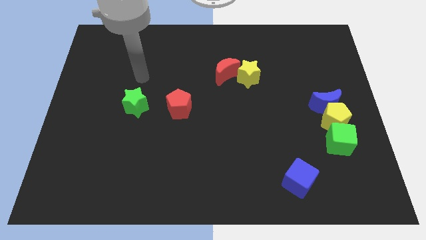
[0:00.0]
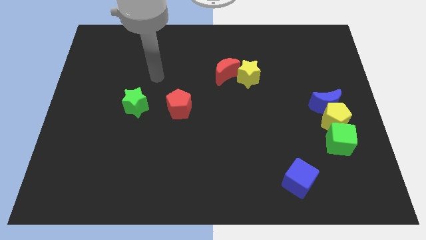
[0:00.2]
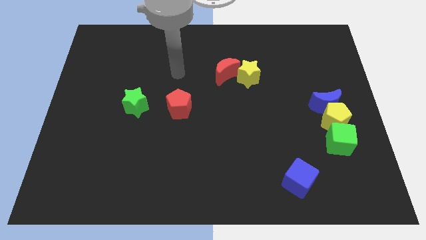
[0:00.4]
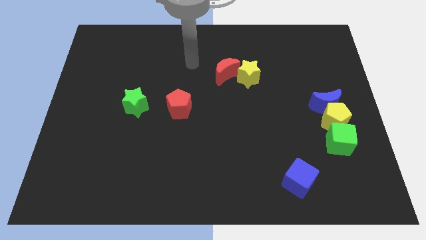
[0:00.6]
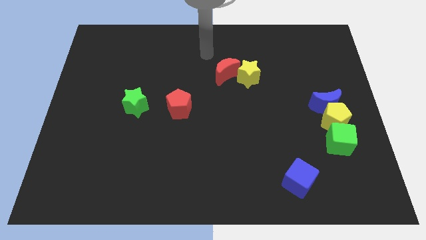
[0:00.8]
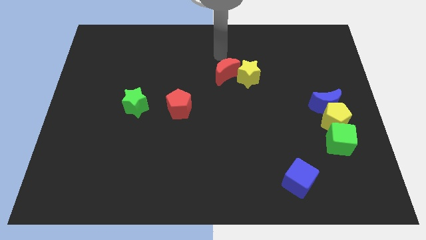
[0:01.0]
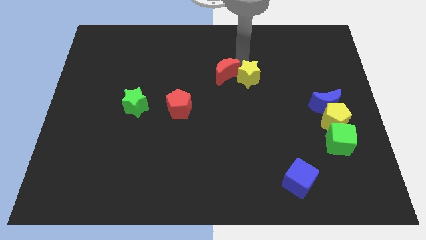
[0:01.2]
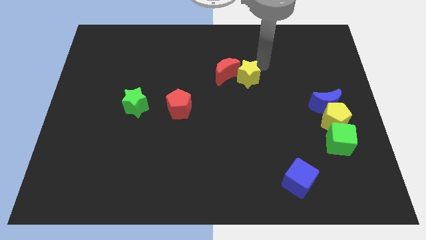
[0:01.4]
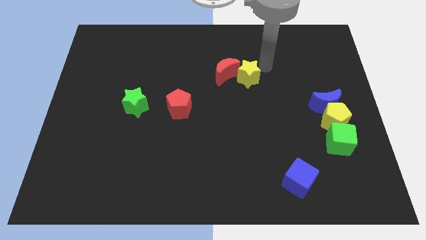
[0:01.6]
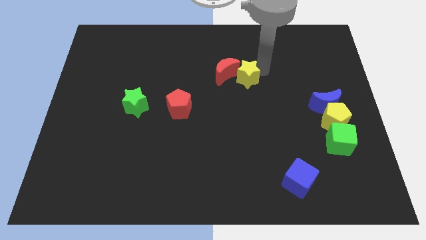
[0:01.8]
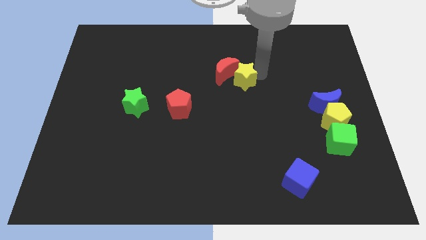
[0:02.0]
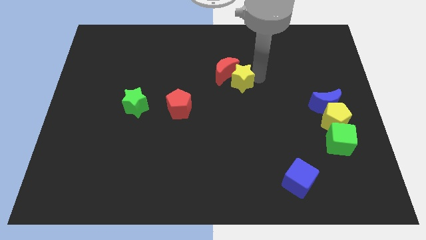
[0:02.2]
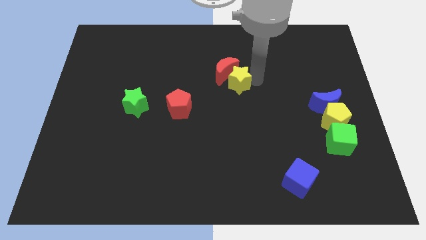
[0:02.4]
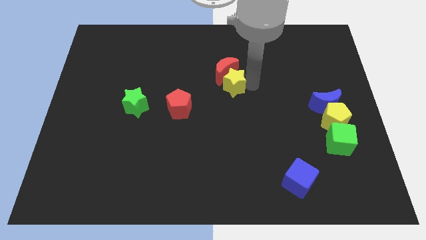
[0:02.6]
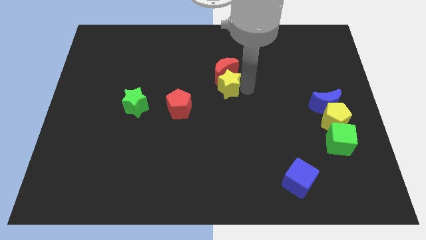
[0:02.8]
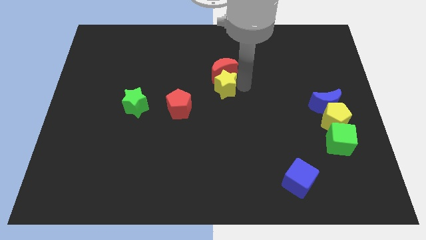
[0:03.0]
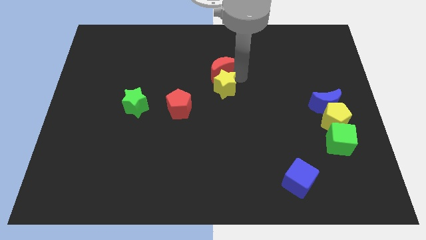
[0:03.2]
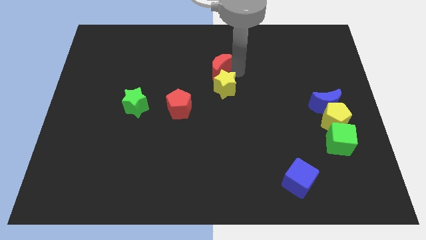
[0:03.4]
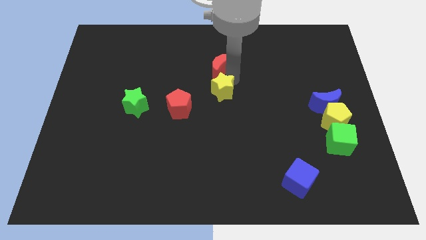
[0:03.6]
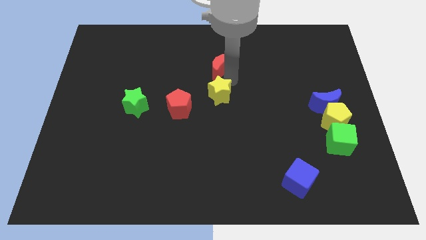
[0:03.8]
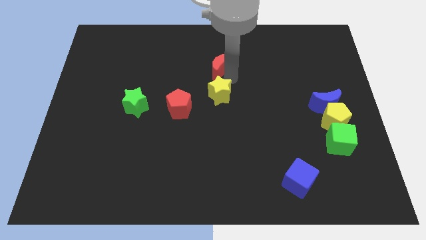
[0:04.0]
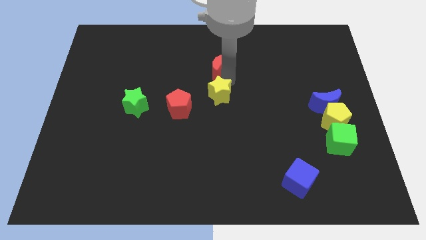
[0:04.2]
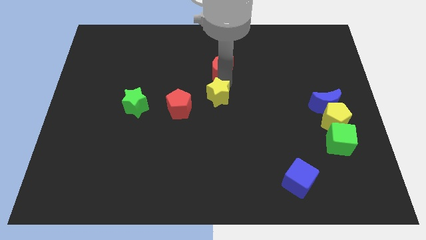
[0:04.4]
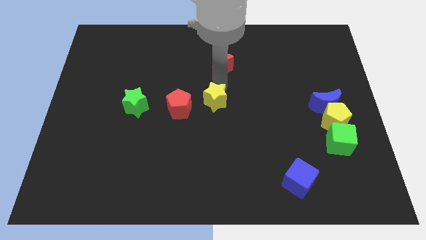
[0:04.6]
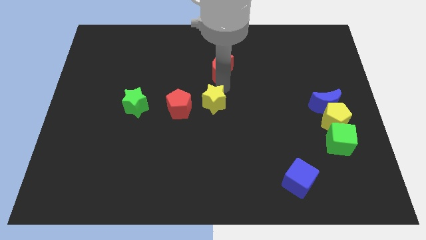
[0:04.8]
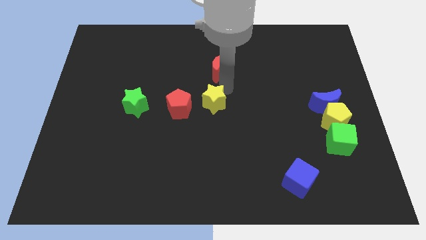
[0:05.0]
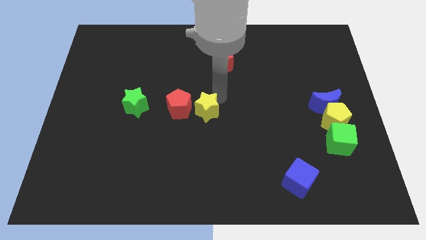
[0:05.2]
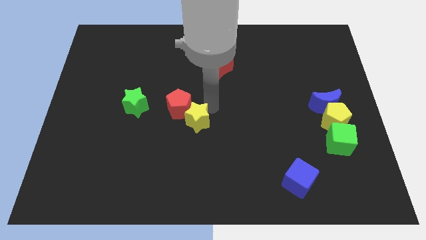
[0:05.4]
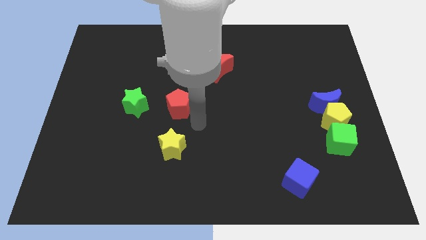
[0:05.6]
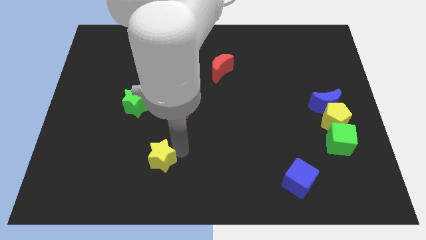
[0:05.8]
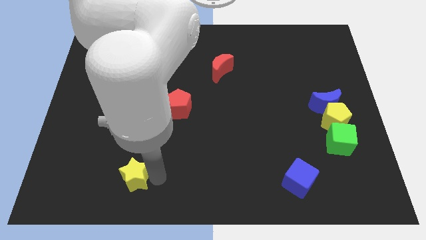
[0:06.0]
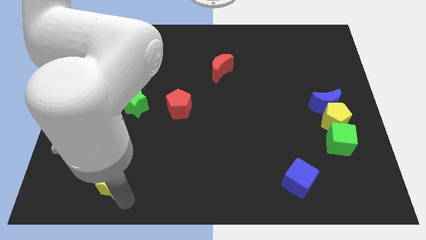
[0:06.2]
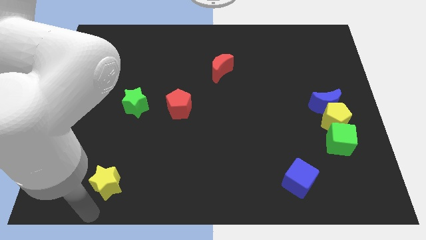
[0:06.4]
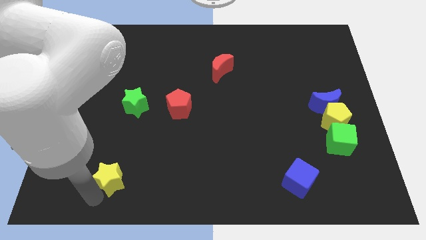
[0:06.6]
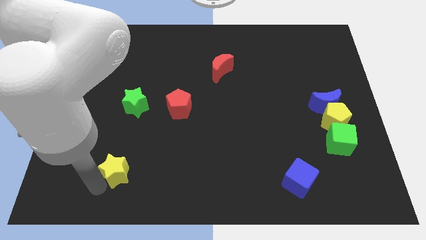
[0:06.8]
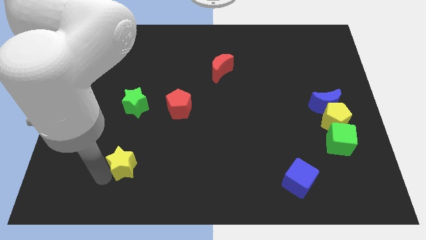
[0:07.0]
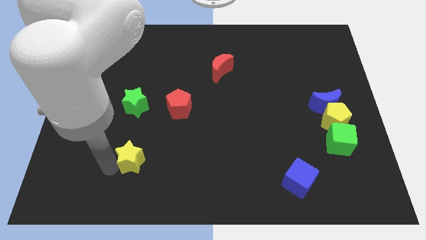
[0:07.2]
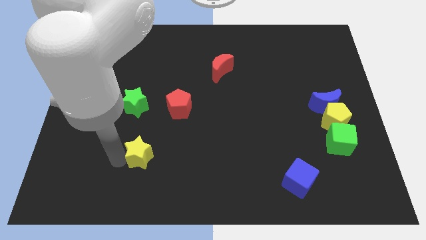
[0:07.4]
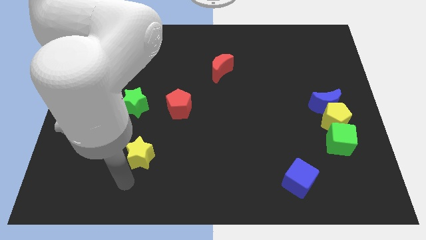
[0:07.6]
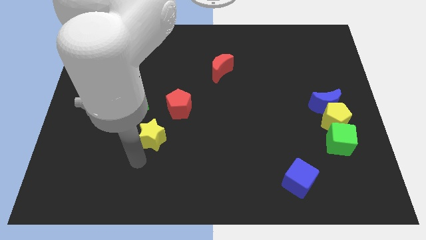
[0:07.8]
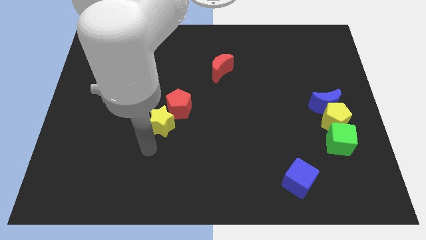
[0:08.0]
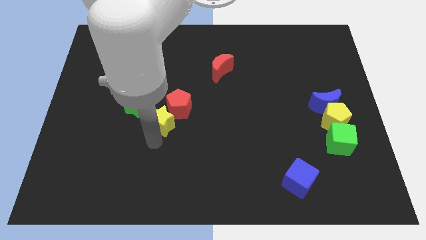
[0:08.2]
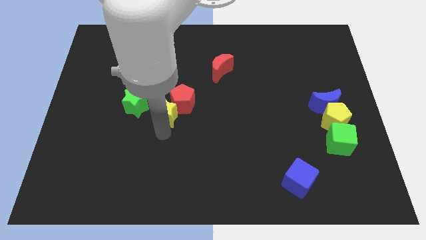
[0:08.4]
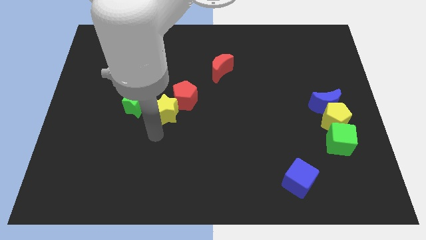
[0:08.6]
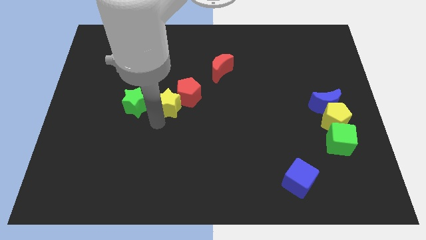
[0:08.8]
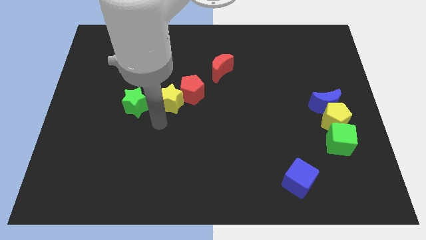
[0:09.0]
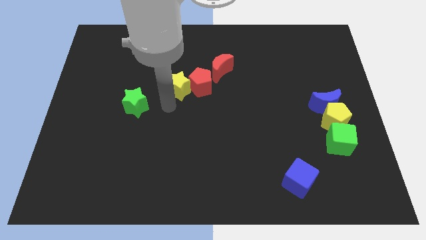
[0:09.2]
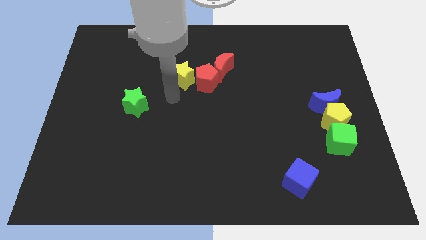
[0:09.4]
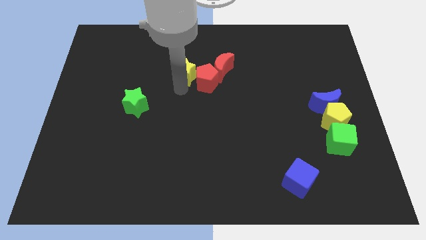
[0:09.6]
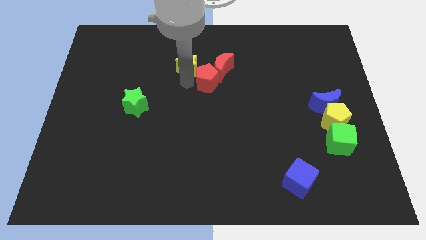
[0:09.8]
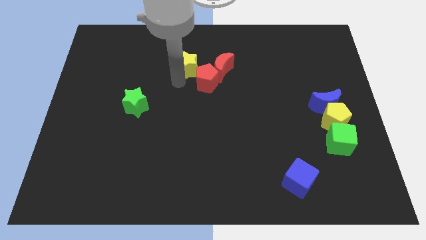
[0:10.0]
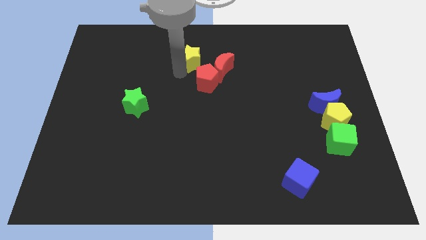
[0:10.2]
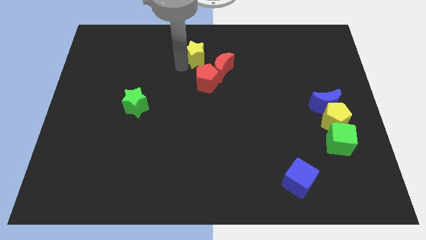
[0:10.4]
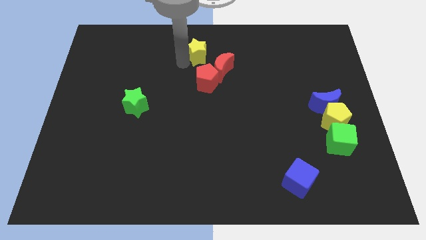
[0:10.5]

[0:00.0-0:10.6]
put the yellow star to the towards your base

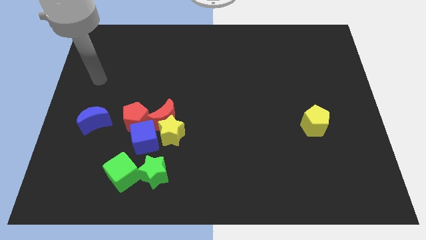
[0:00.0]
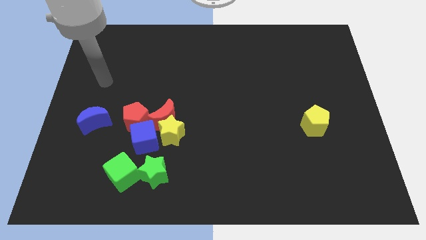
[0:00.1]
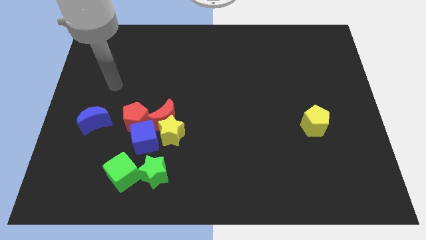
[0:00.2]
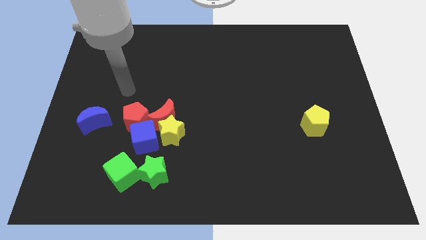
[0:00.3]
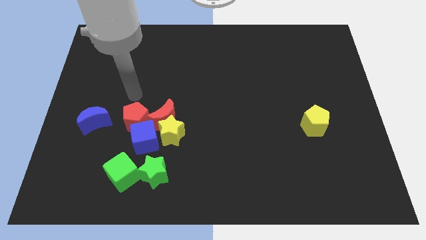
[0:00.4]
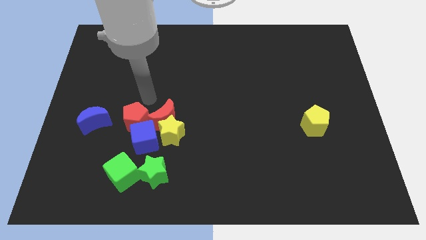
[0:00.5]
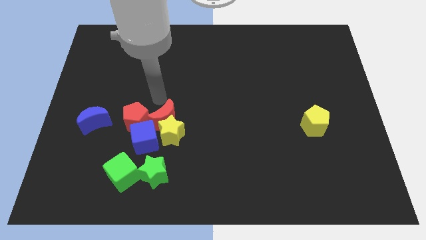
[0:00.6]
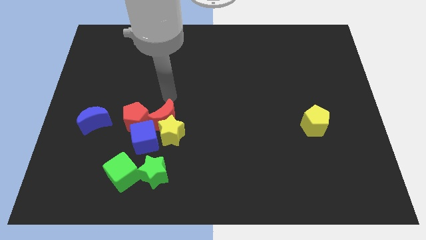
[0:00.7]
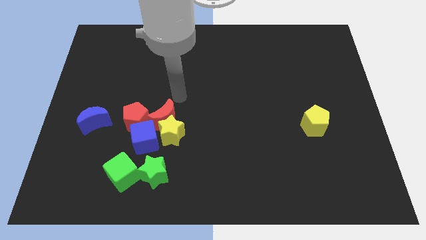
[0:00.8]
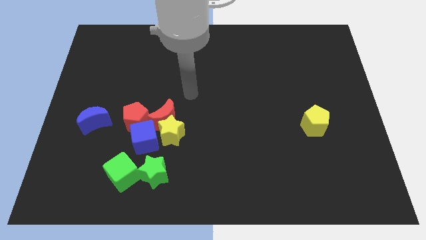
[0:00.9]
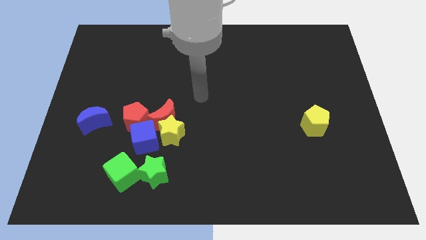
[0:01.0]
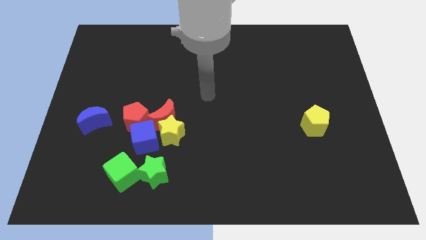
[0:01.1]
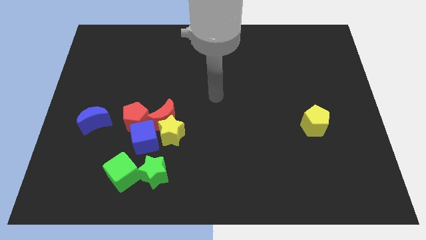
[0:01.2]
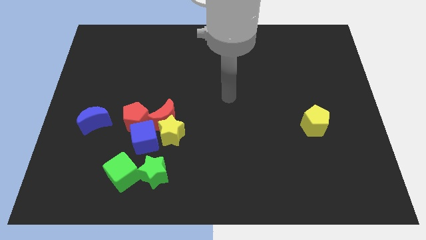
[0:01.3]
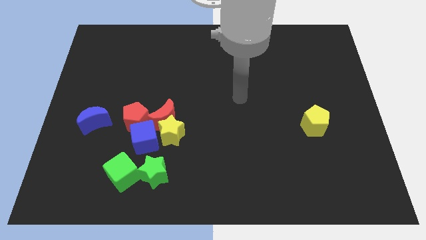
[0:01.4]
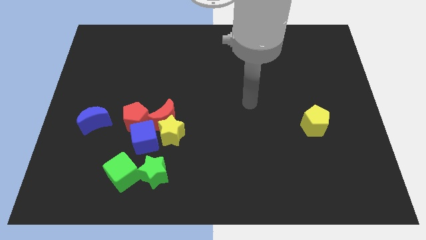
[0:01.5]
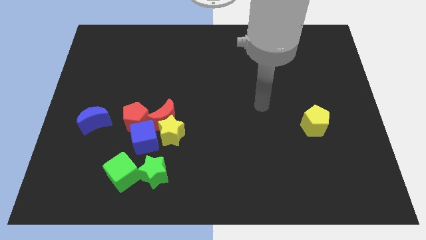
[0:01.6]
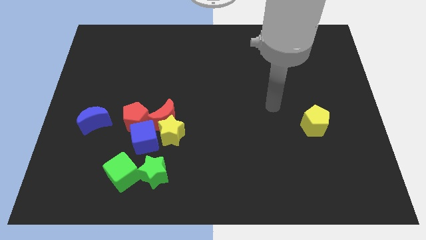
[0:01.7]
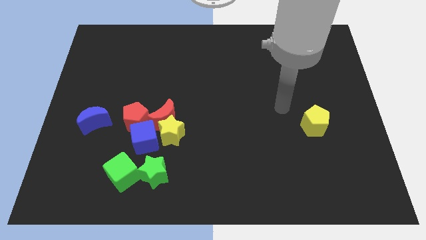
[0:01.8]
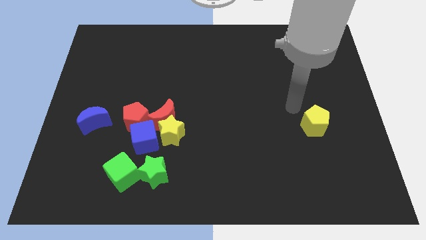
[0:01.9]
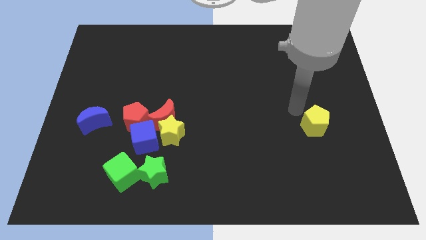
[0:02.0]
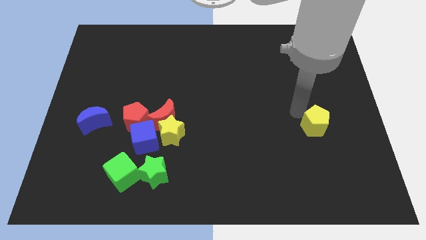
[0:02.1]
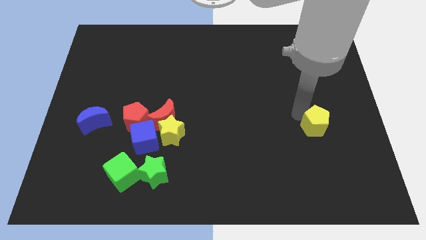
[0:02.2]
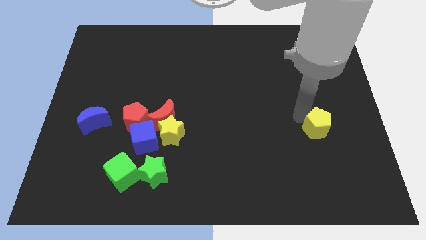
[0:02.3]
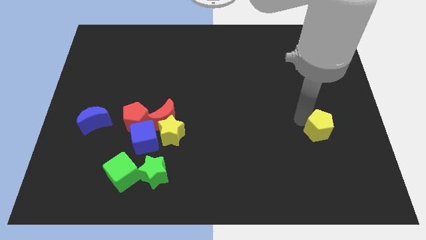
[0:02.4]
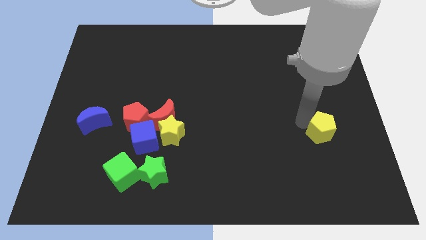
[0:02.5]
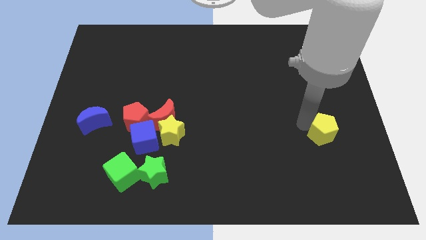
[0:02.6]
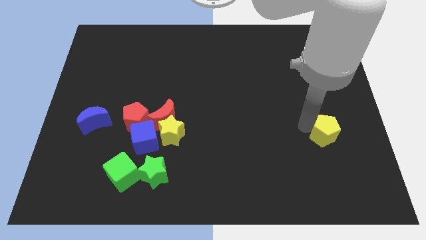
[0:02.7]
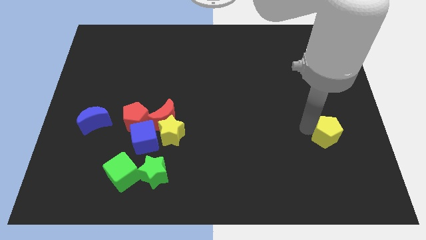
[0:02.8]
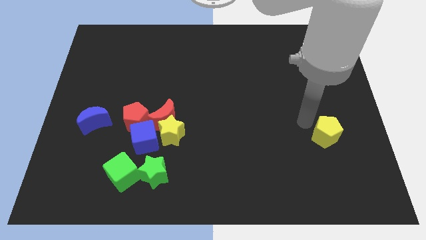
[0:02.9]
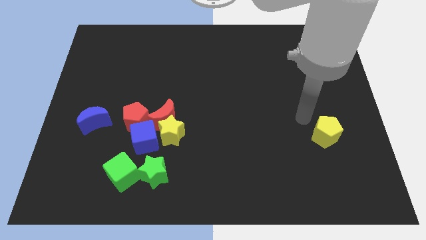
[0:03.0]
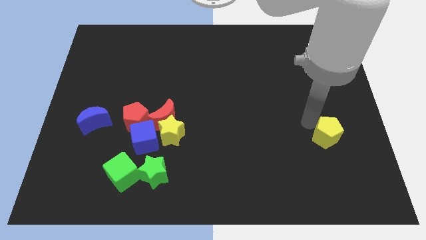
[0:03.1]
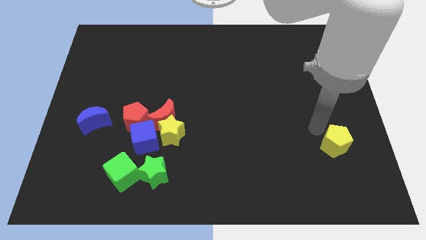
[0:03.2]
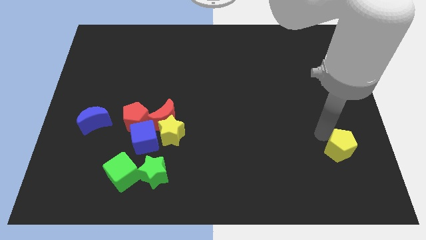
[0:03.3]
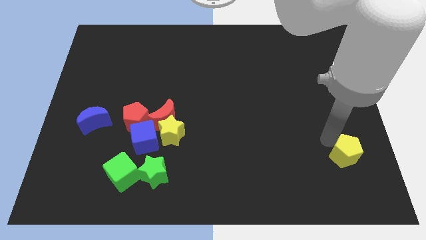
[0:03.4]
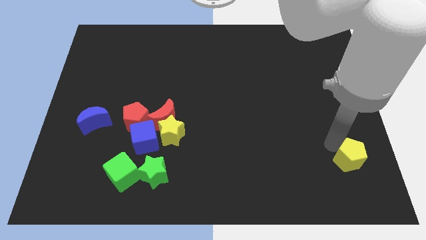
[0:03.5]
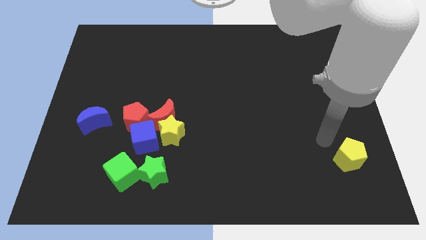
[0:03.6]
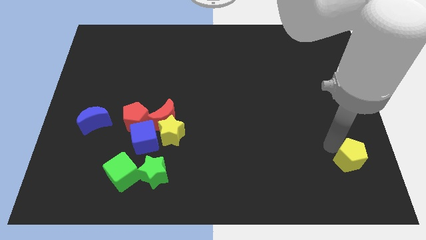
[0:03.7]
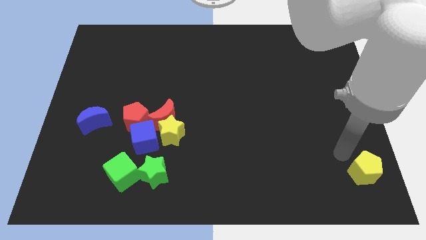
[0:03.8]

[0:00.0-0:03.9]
slide the yellow pentagon to the bottom right of the board
